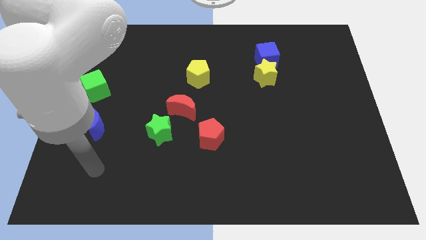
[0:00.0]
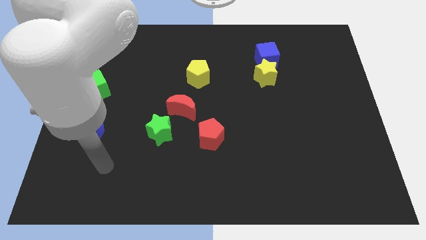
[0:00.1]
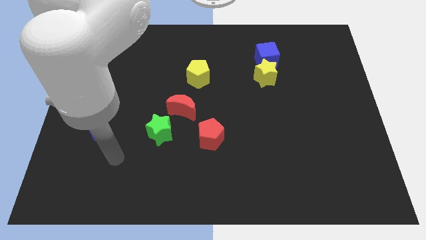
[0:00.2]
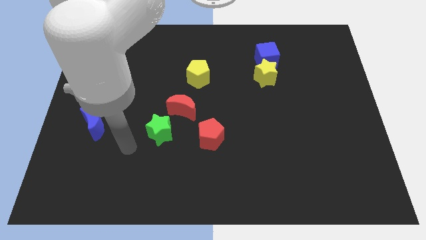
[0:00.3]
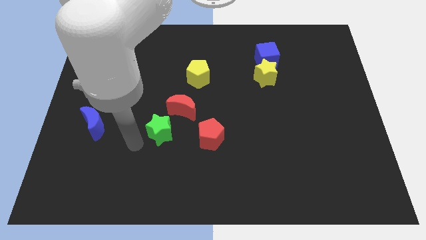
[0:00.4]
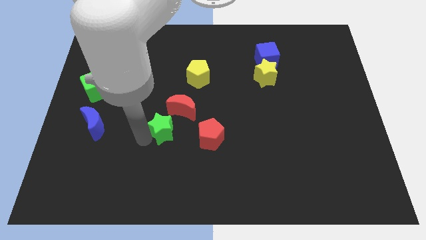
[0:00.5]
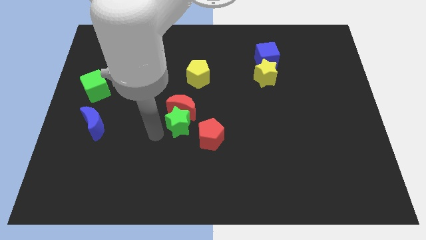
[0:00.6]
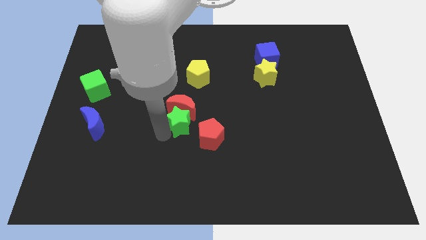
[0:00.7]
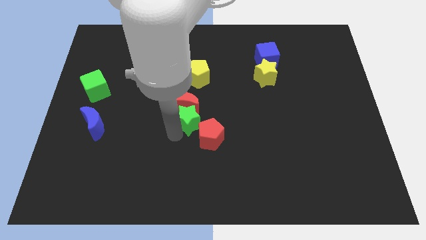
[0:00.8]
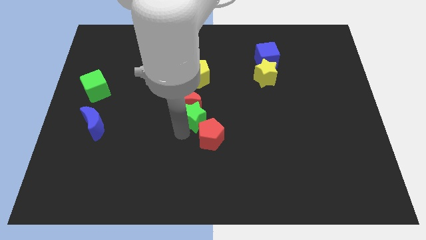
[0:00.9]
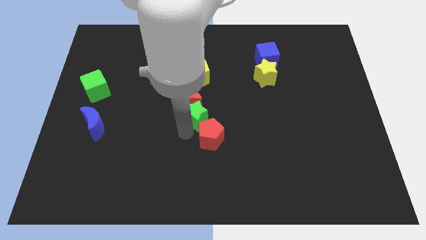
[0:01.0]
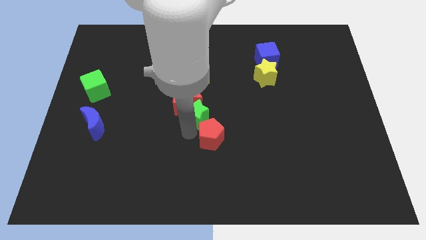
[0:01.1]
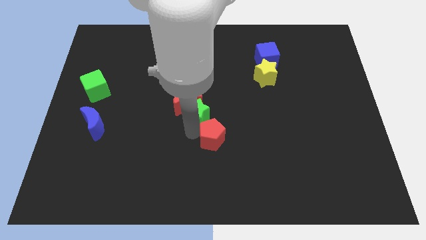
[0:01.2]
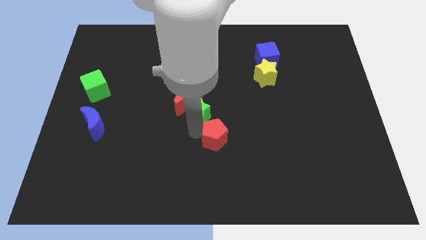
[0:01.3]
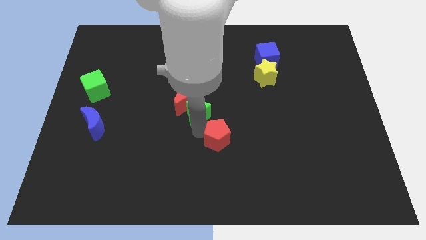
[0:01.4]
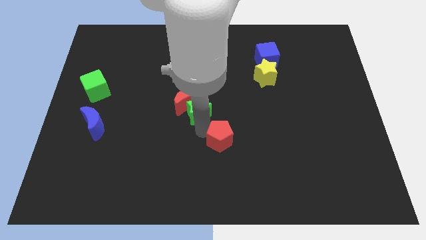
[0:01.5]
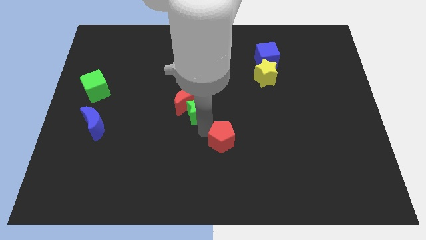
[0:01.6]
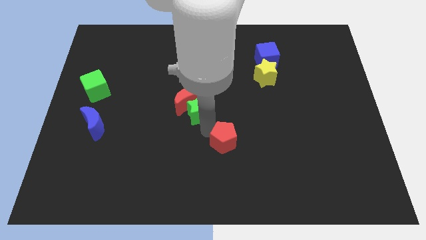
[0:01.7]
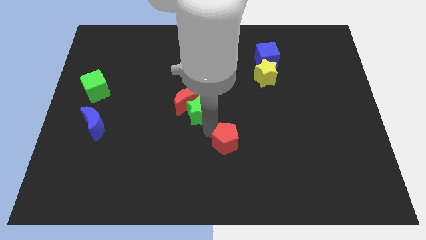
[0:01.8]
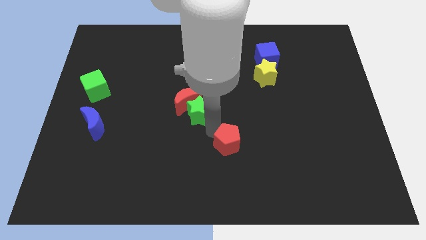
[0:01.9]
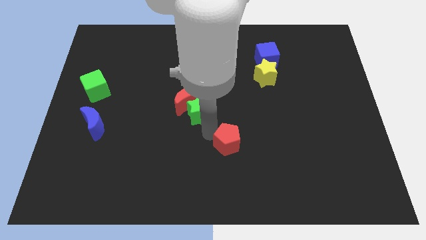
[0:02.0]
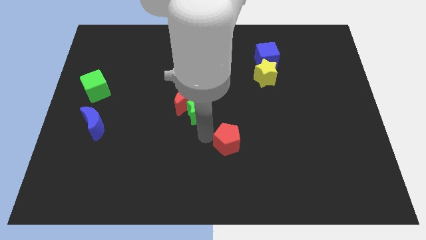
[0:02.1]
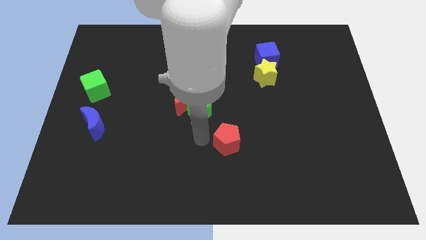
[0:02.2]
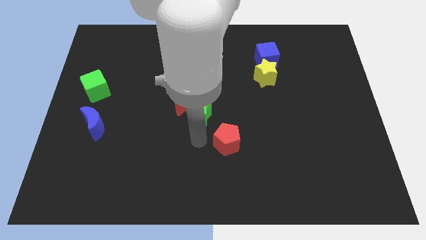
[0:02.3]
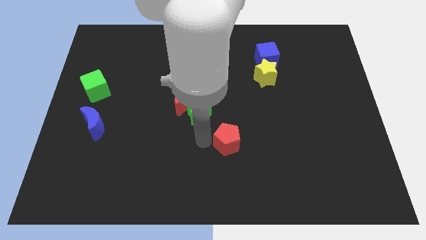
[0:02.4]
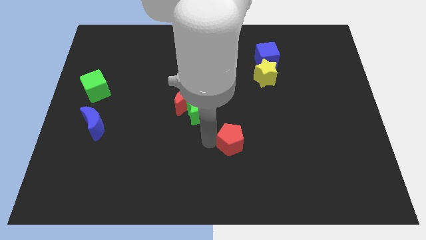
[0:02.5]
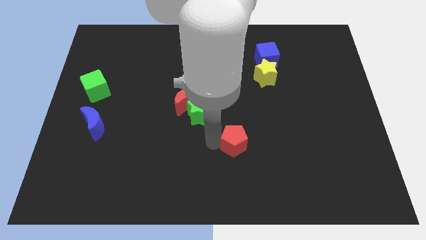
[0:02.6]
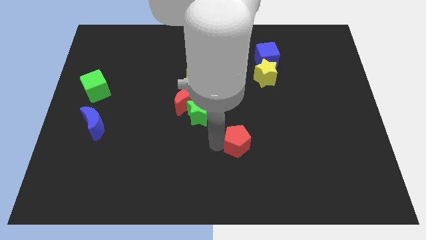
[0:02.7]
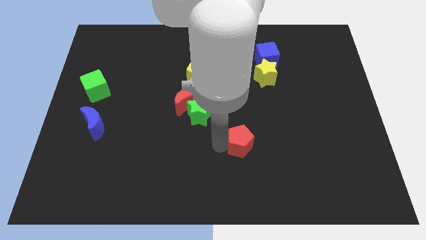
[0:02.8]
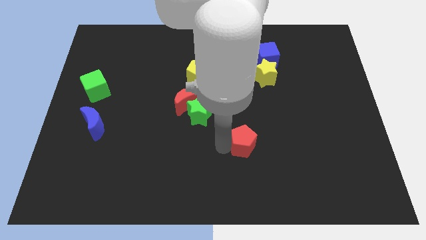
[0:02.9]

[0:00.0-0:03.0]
push the red pentagon to the right somewhat

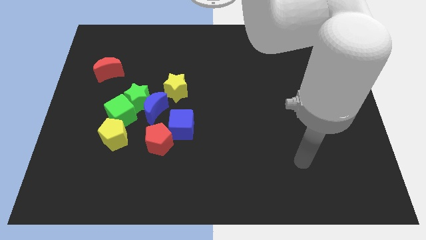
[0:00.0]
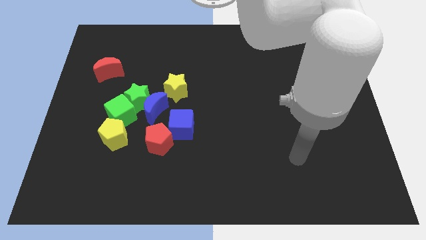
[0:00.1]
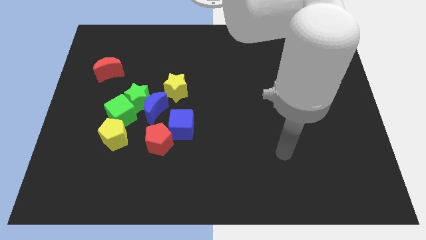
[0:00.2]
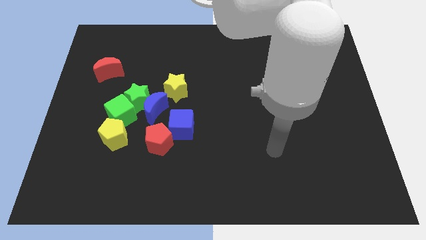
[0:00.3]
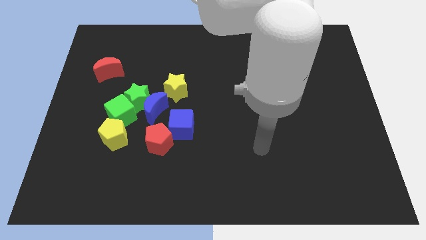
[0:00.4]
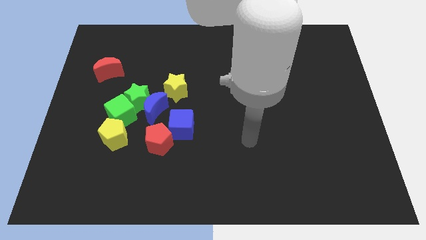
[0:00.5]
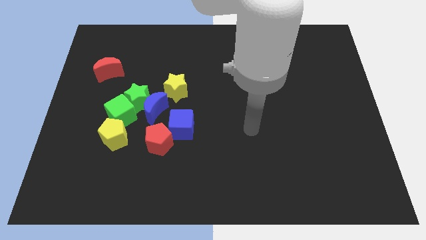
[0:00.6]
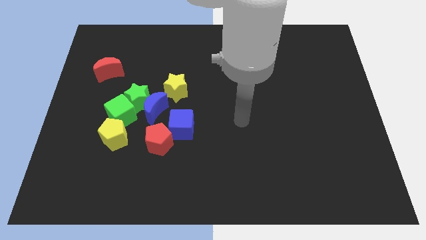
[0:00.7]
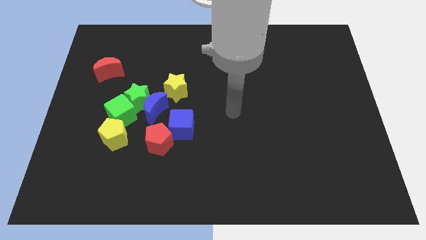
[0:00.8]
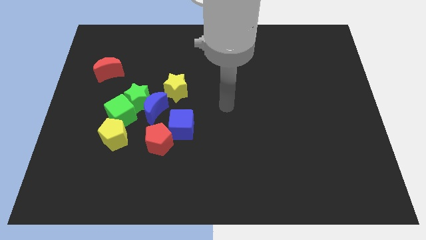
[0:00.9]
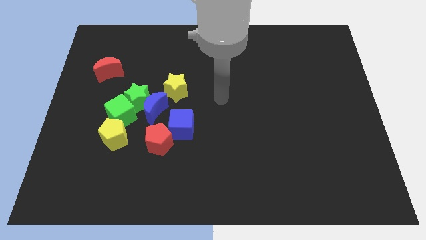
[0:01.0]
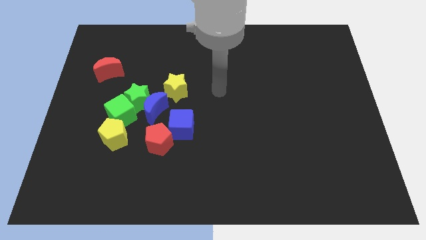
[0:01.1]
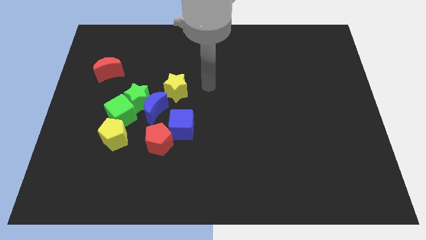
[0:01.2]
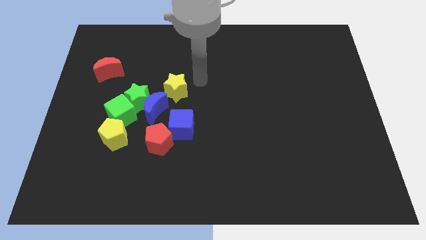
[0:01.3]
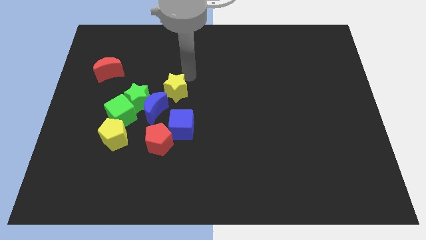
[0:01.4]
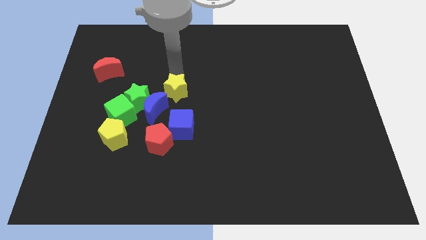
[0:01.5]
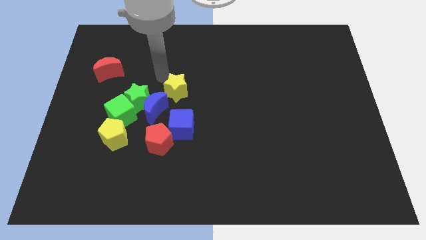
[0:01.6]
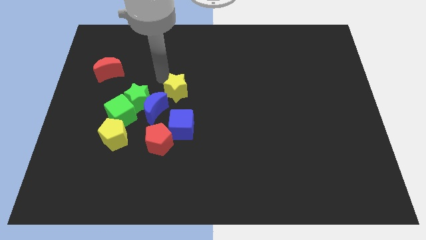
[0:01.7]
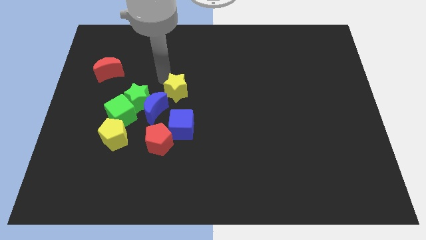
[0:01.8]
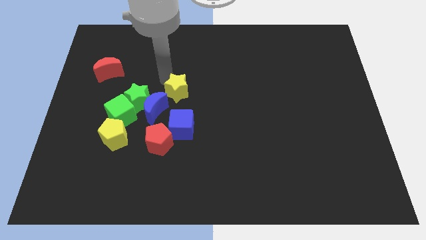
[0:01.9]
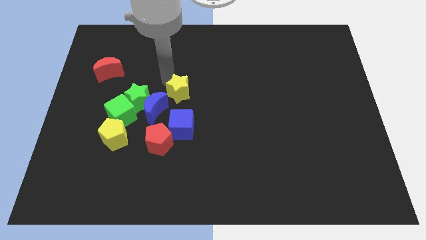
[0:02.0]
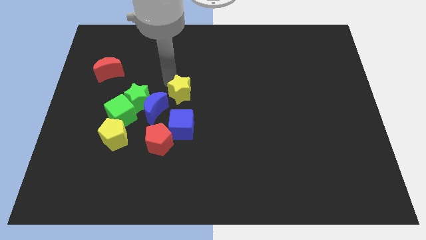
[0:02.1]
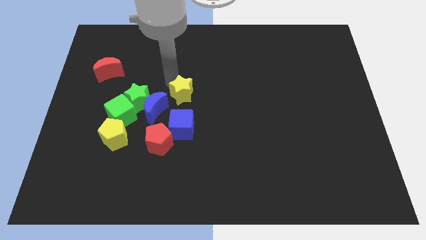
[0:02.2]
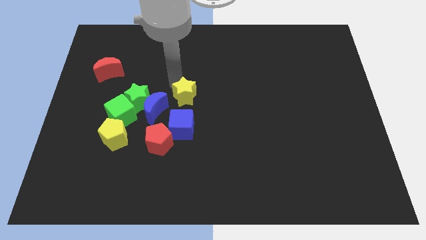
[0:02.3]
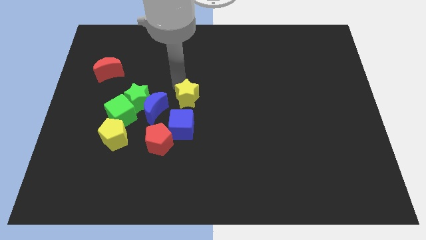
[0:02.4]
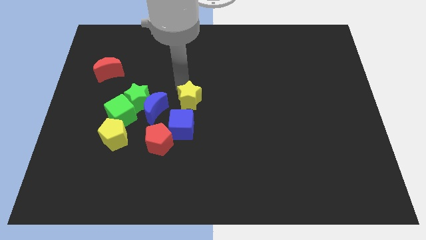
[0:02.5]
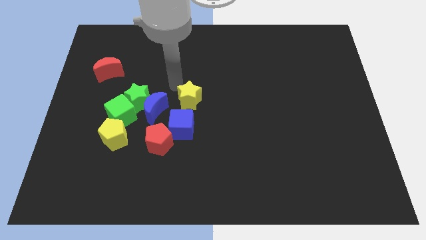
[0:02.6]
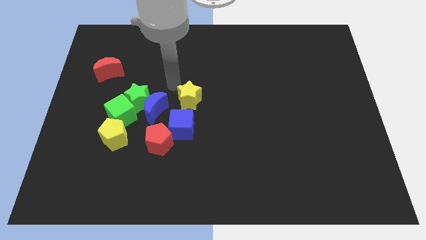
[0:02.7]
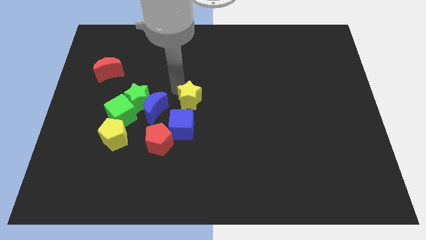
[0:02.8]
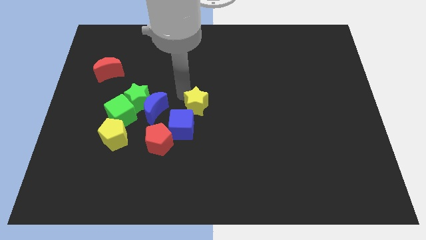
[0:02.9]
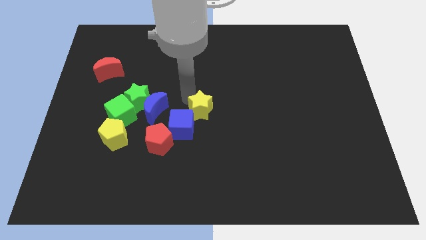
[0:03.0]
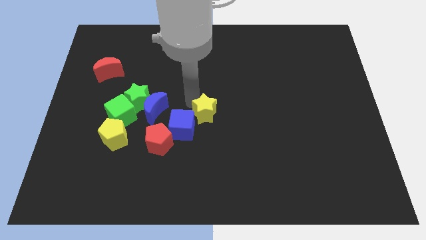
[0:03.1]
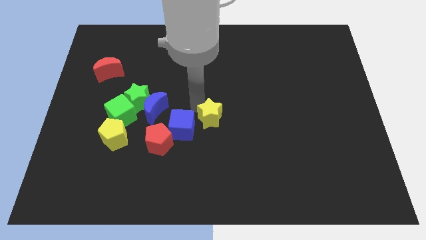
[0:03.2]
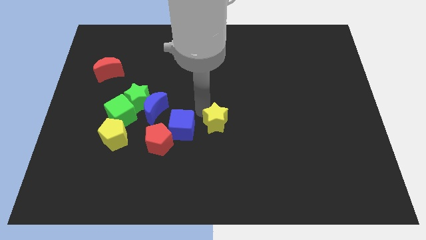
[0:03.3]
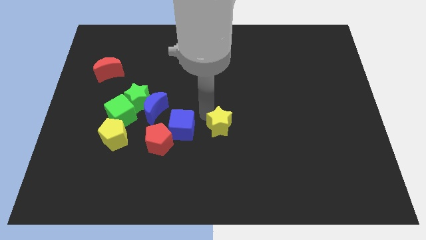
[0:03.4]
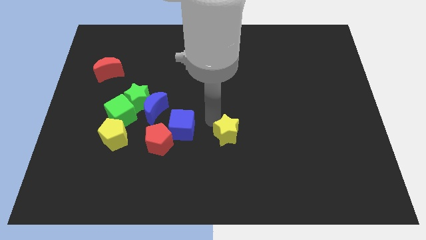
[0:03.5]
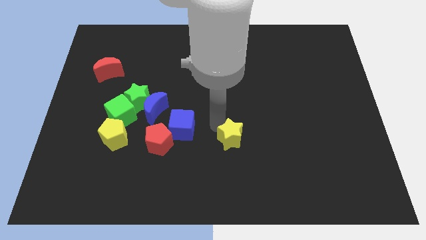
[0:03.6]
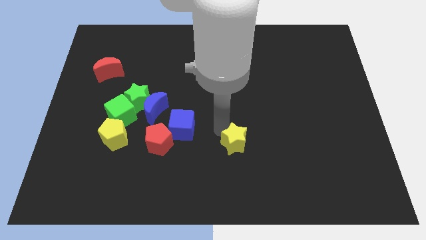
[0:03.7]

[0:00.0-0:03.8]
move the yellow star downwards and then to the right

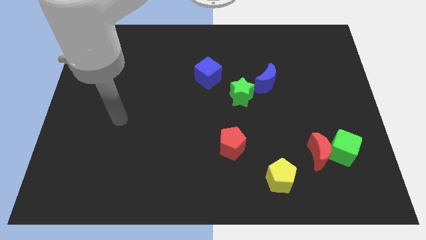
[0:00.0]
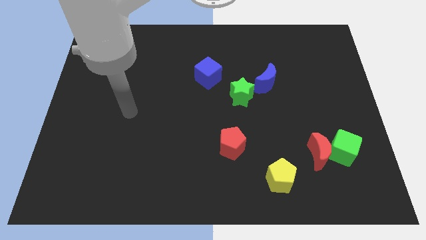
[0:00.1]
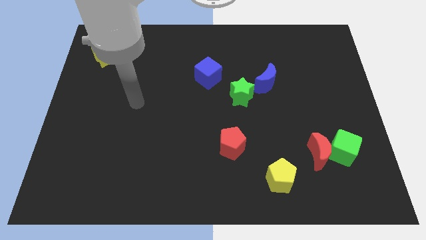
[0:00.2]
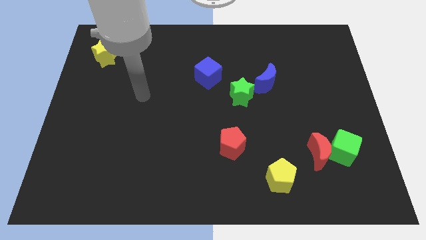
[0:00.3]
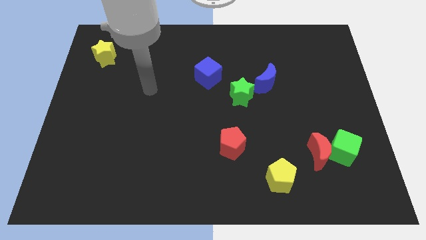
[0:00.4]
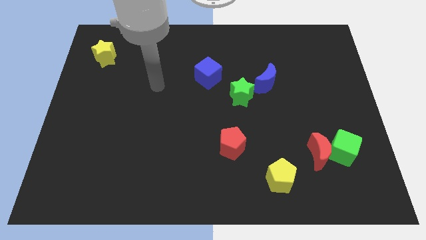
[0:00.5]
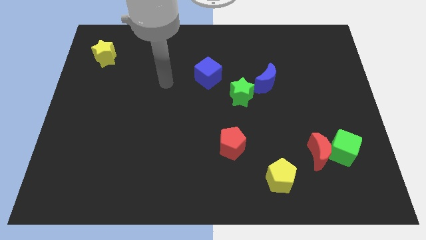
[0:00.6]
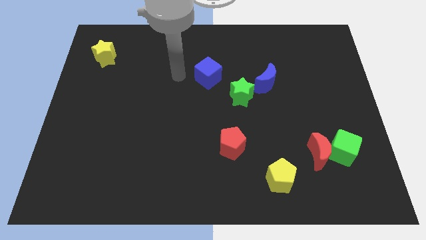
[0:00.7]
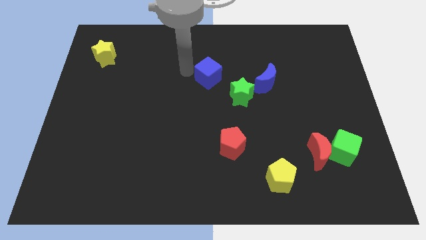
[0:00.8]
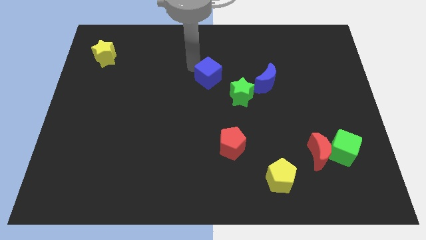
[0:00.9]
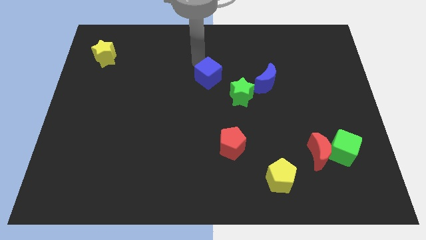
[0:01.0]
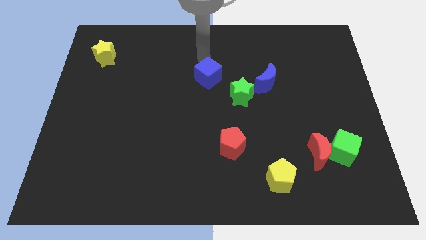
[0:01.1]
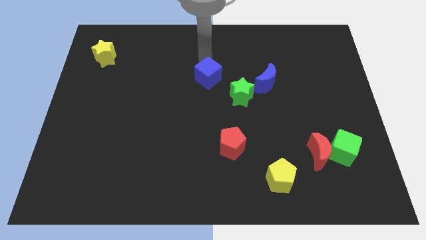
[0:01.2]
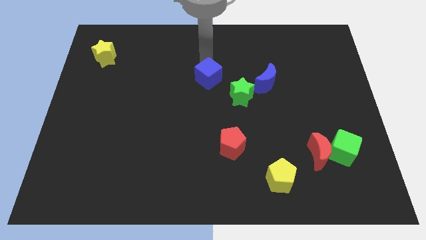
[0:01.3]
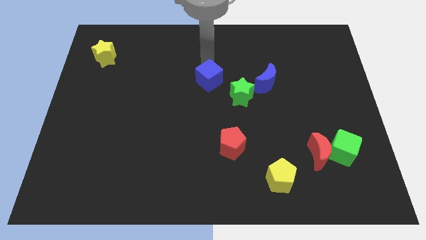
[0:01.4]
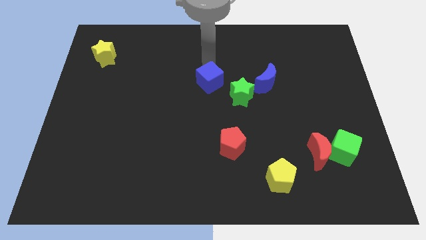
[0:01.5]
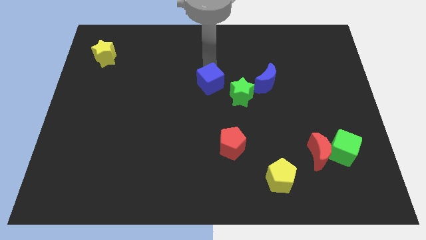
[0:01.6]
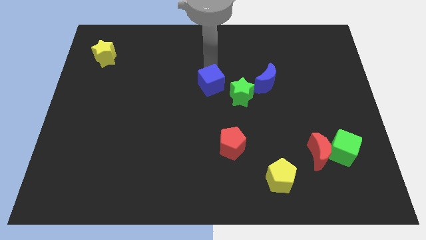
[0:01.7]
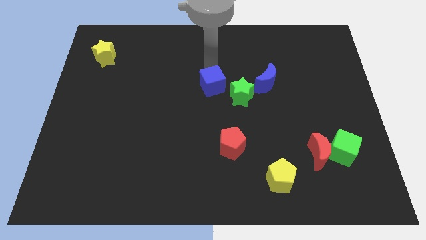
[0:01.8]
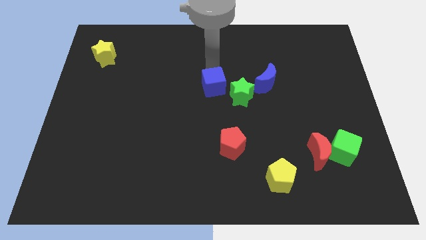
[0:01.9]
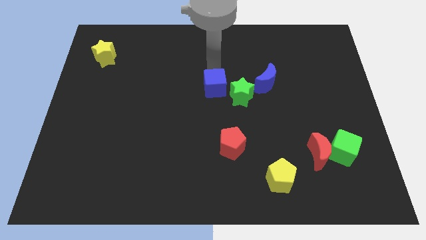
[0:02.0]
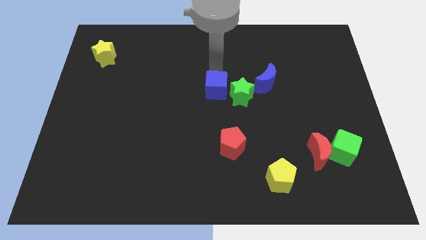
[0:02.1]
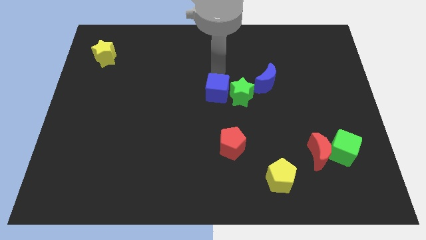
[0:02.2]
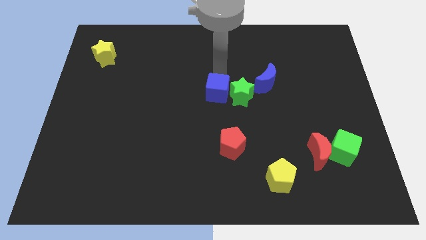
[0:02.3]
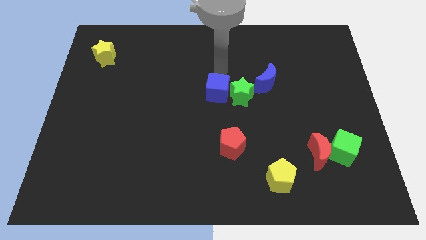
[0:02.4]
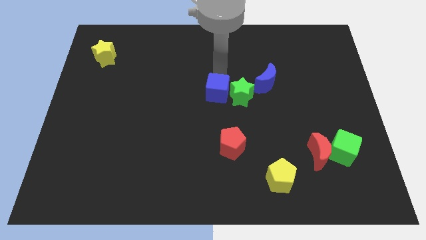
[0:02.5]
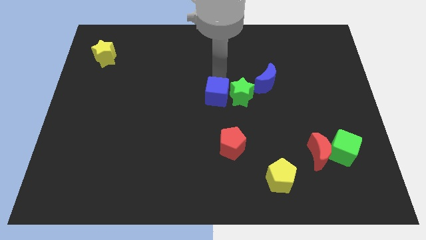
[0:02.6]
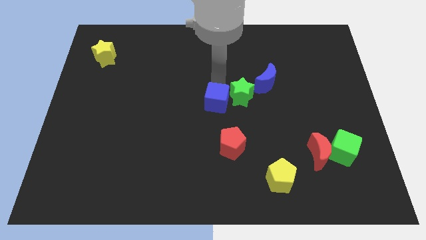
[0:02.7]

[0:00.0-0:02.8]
slightly slide the blue cube down
